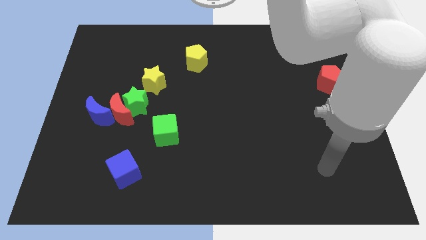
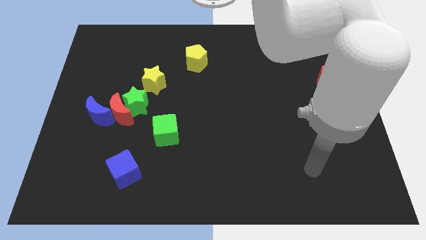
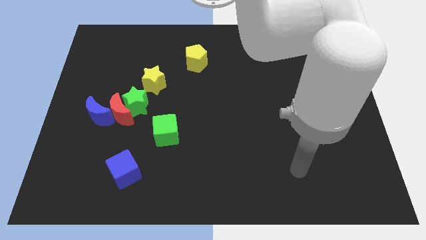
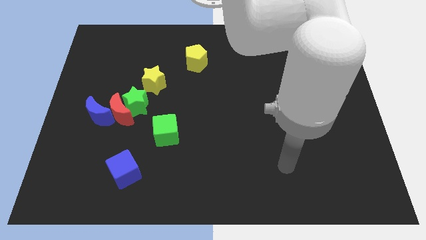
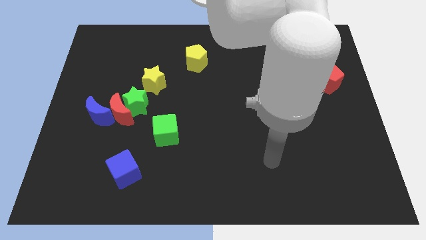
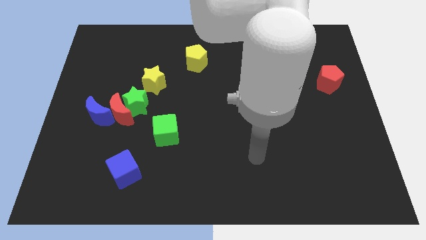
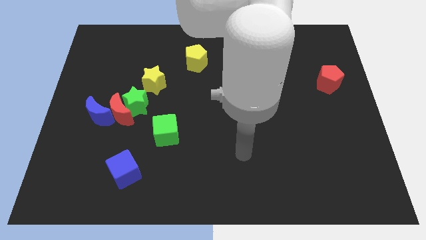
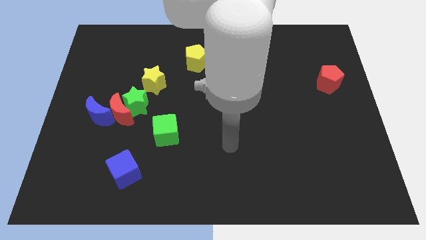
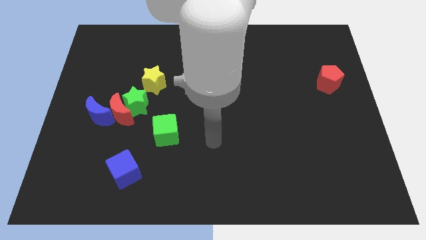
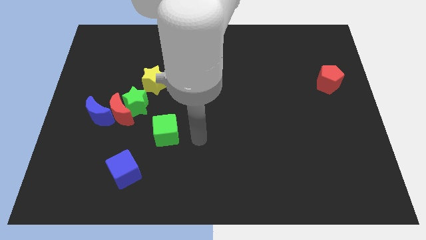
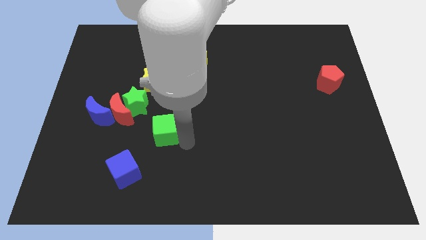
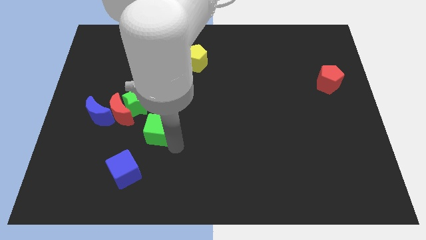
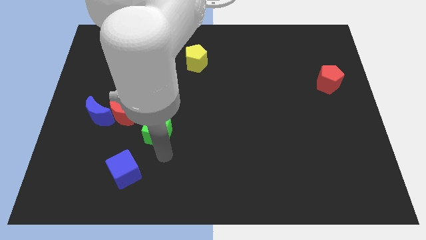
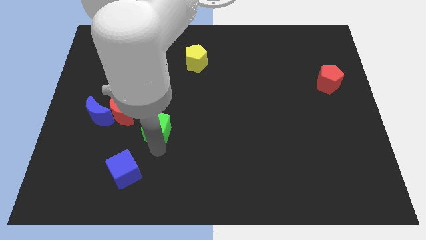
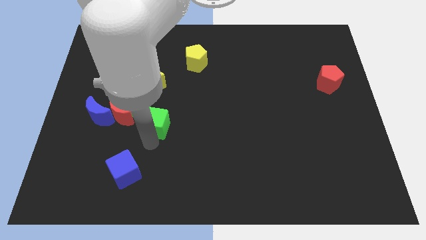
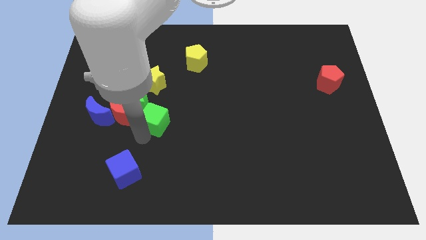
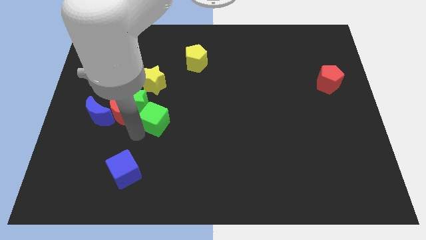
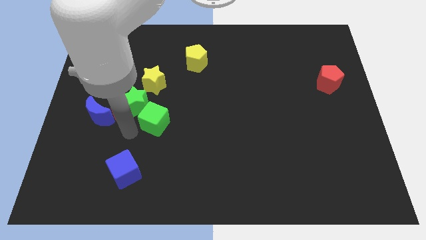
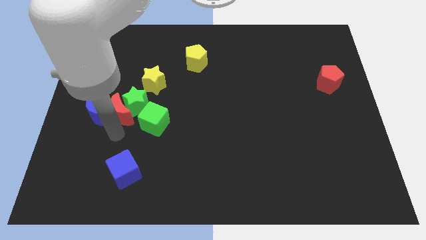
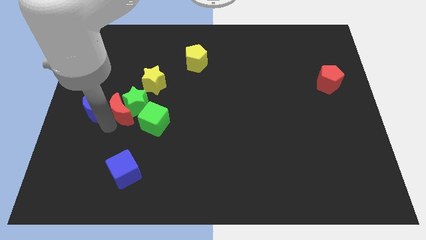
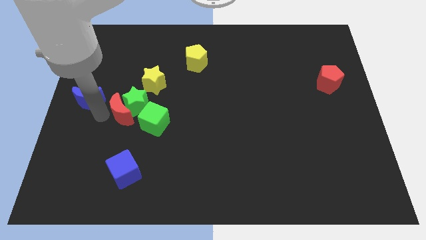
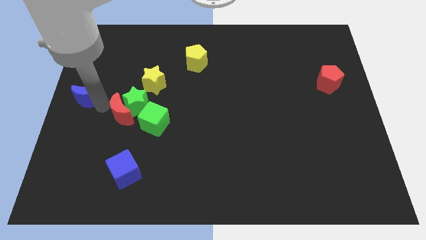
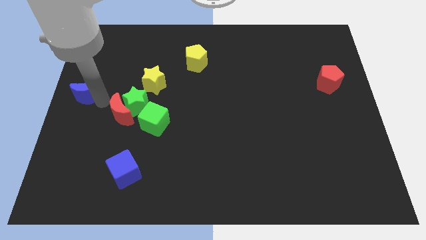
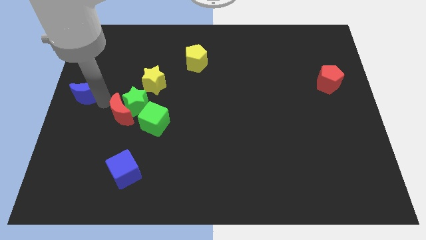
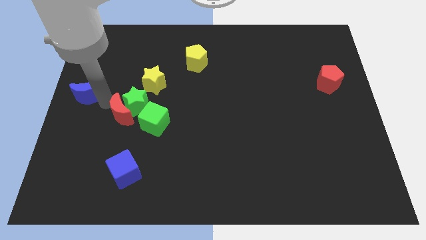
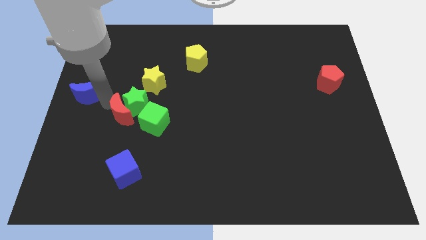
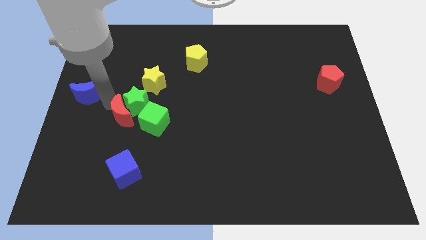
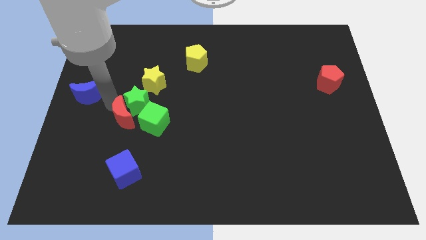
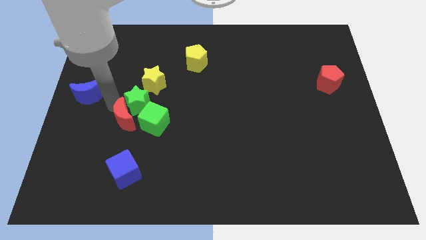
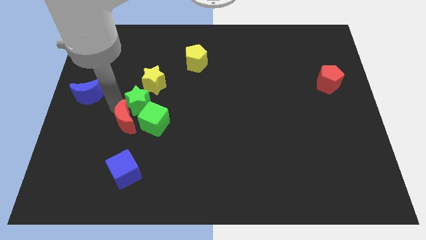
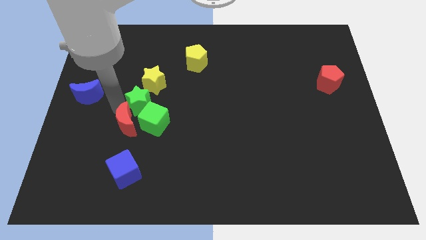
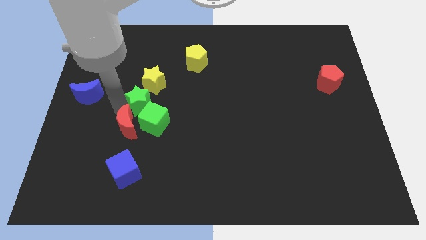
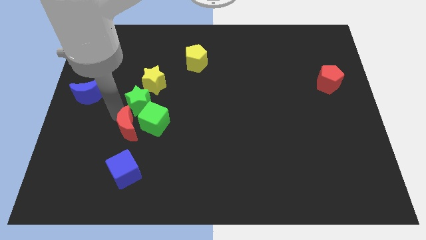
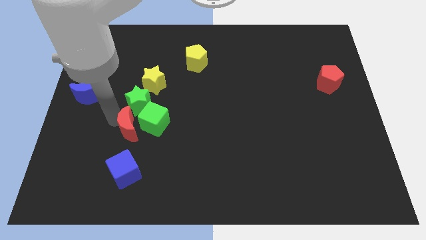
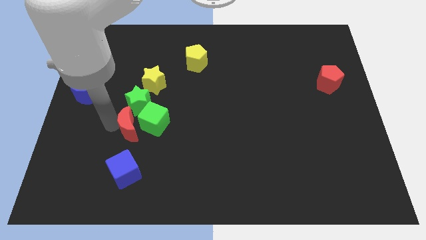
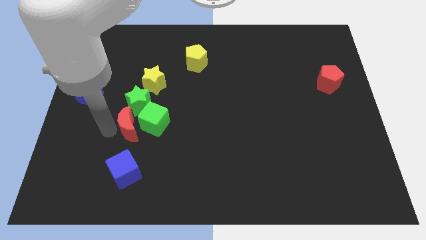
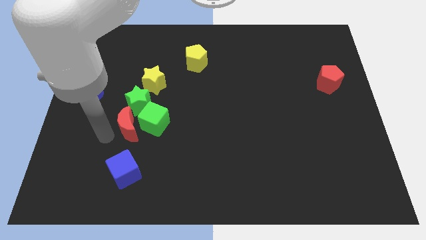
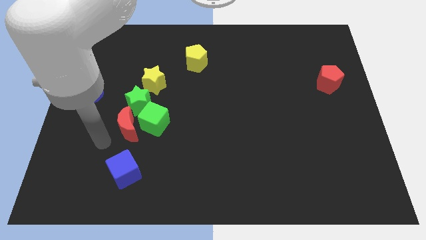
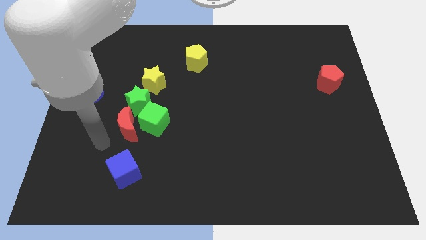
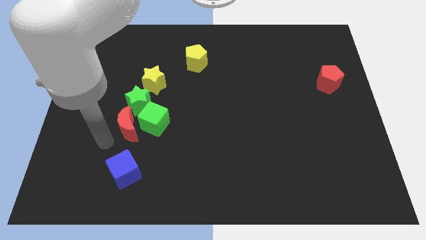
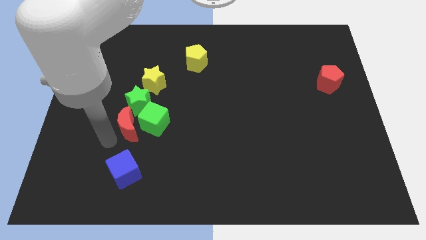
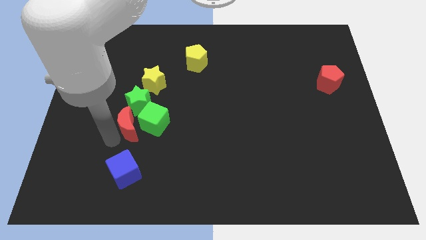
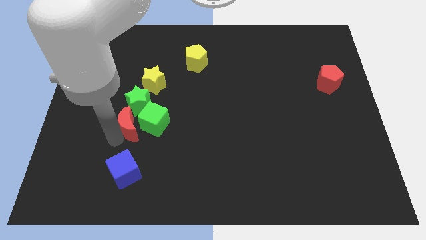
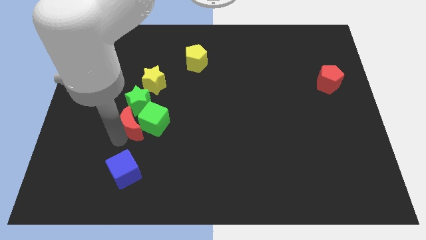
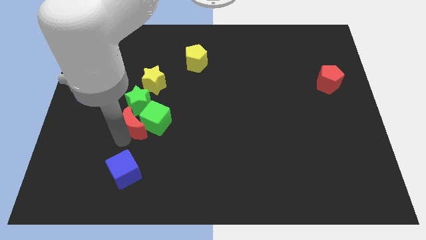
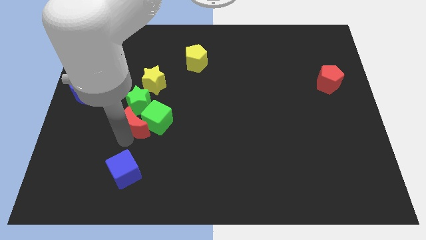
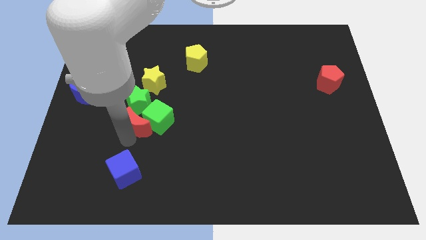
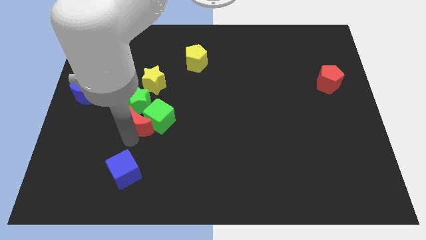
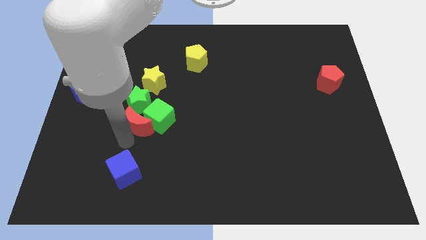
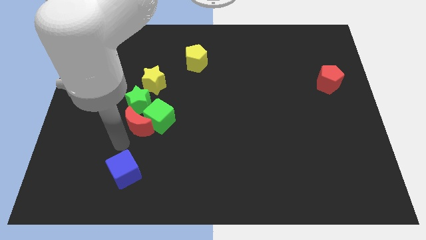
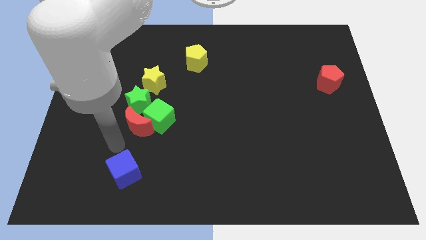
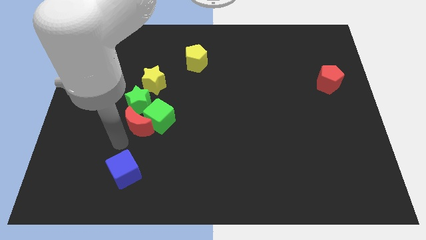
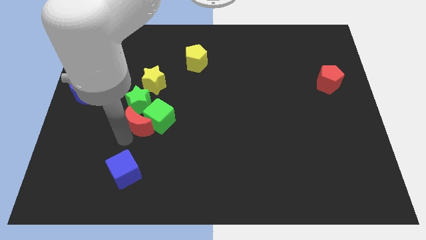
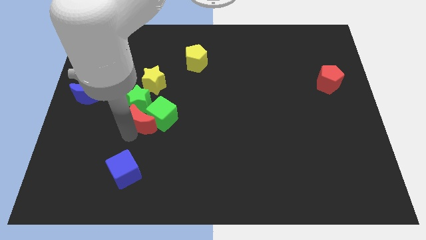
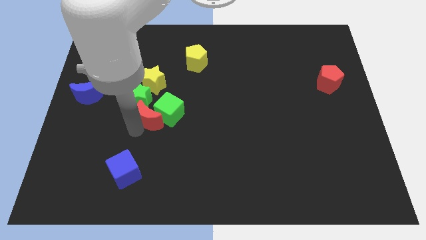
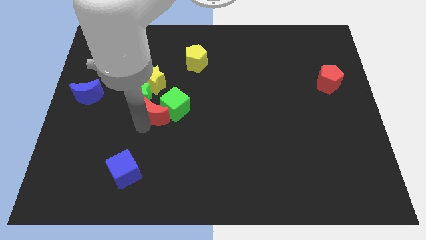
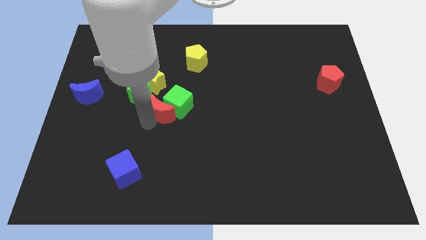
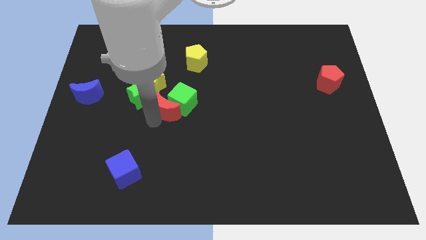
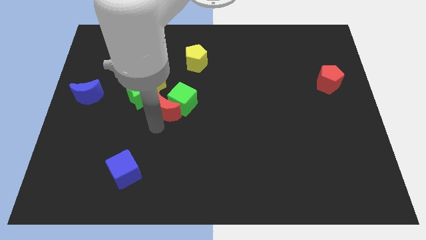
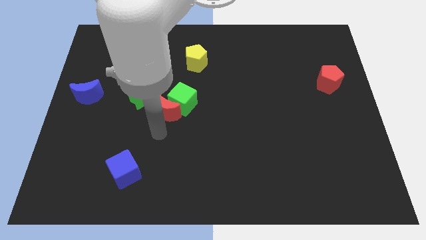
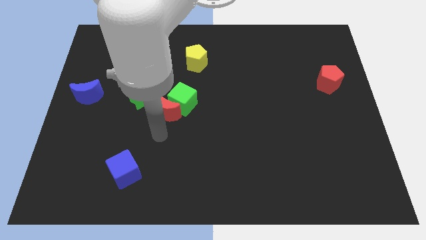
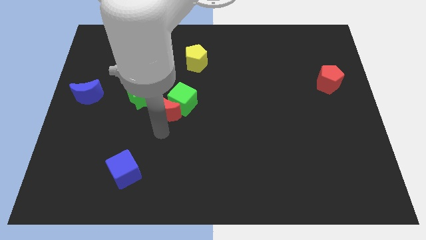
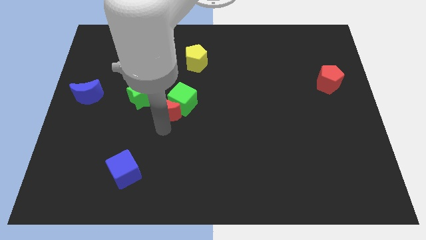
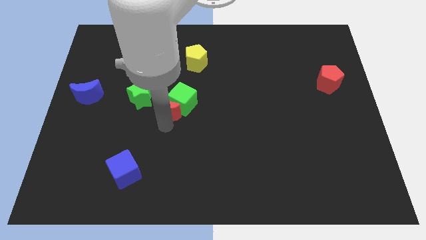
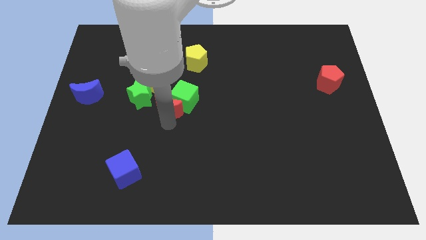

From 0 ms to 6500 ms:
move the red moon slightly upwards and right

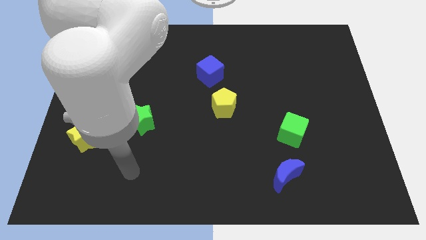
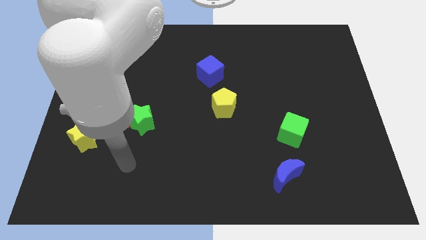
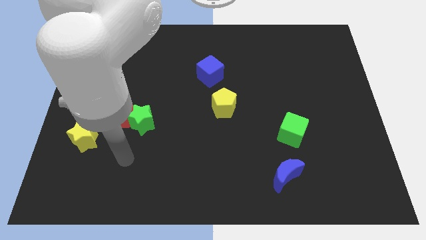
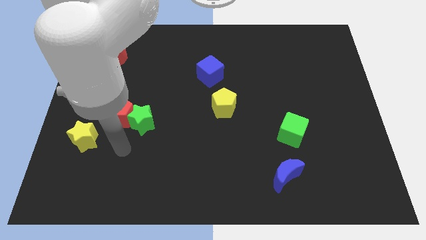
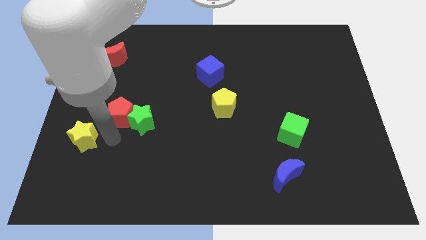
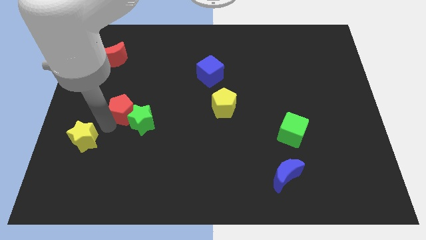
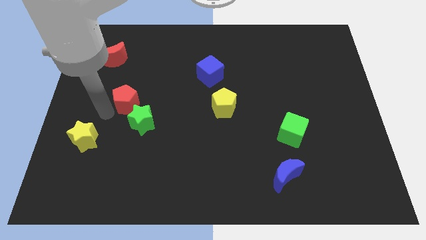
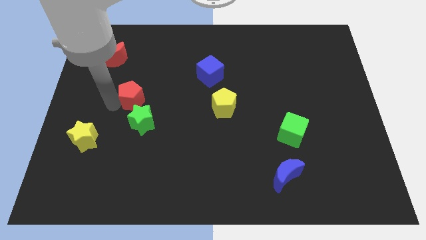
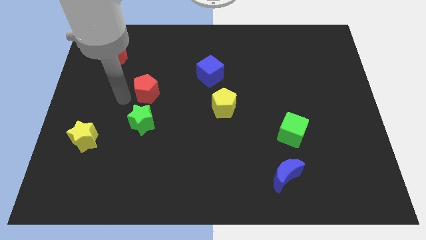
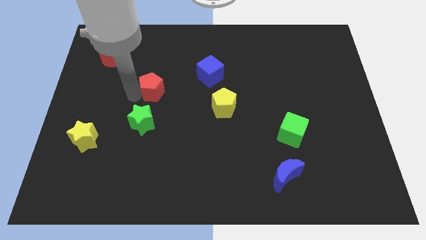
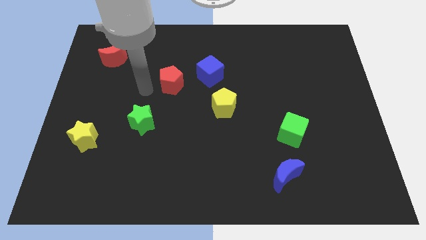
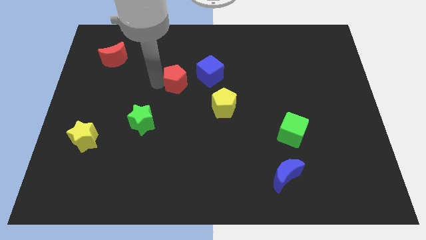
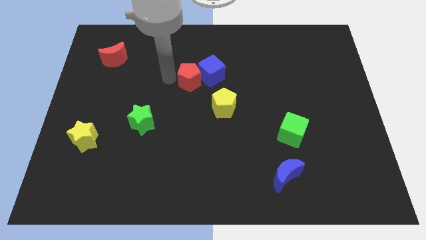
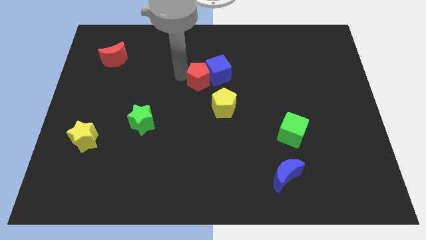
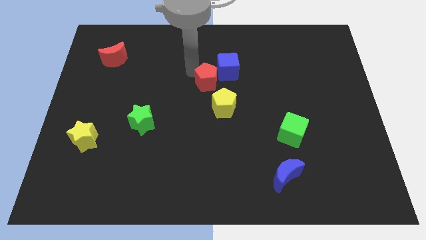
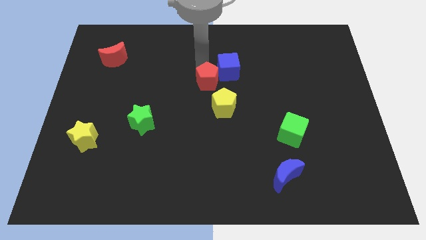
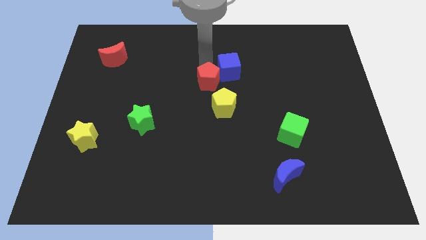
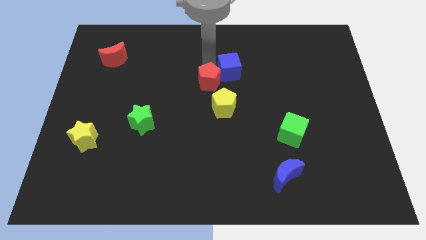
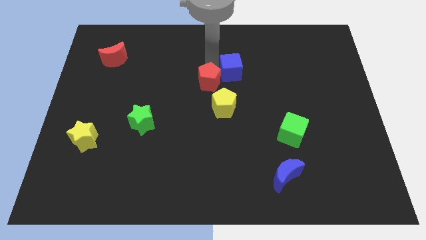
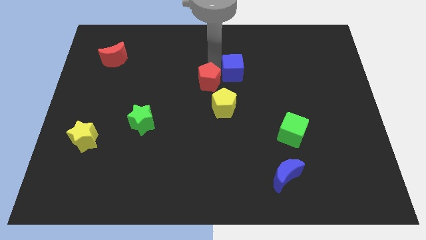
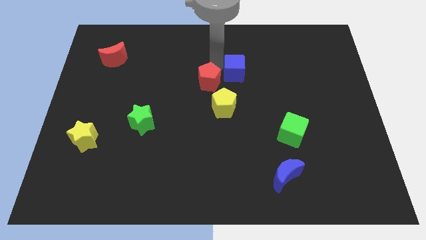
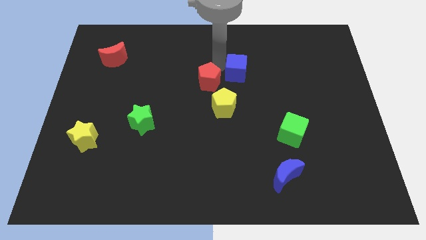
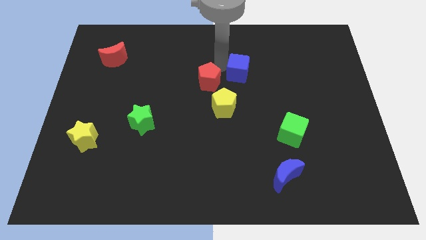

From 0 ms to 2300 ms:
push the blue cube to the right a little
